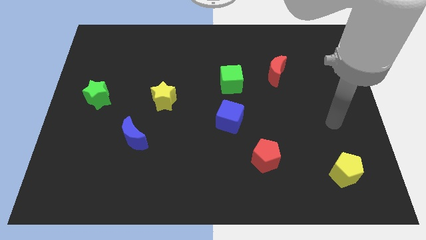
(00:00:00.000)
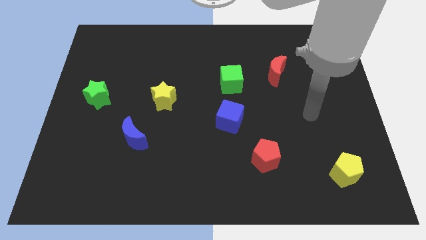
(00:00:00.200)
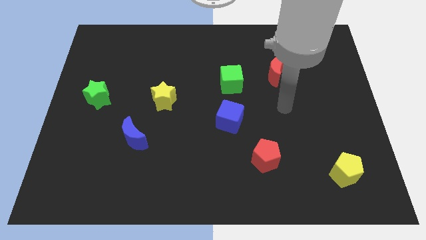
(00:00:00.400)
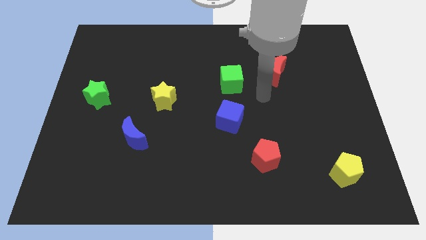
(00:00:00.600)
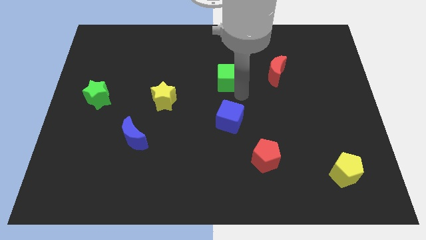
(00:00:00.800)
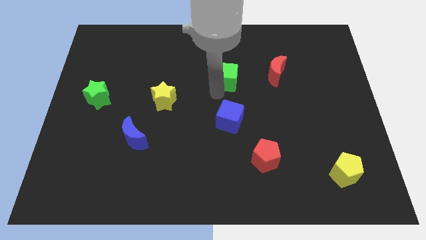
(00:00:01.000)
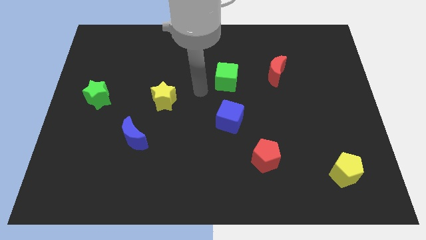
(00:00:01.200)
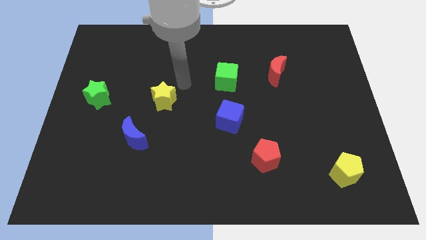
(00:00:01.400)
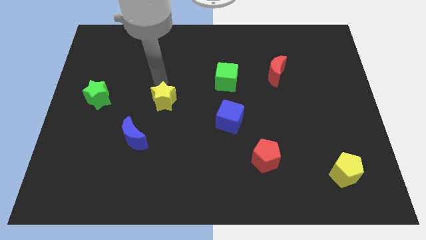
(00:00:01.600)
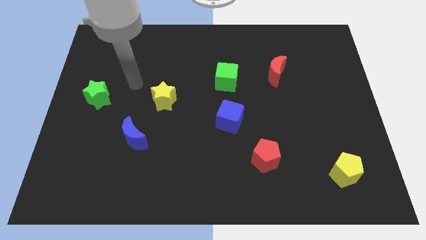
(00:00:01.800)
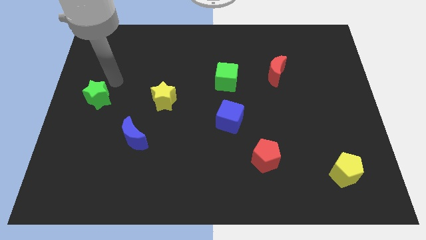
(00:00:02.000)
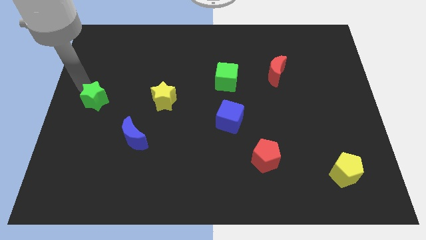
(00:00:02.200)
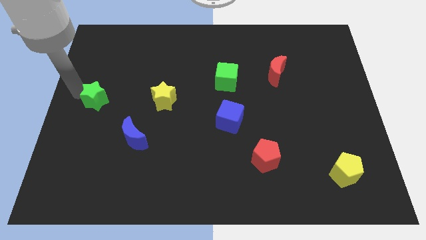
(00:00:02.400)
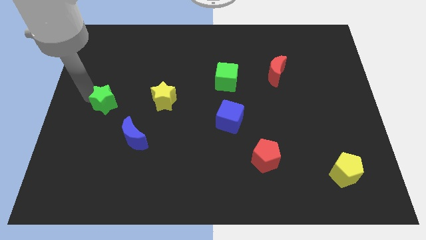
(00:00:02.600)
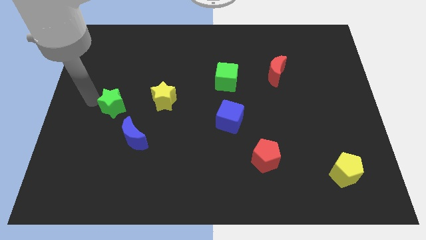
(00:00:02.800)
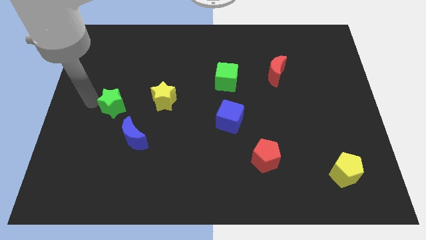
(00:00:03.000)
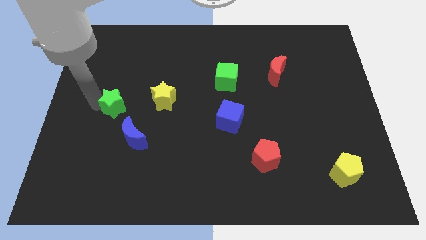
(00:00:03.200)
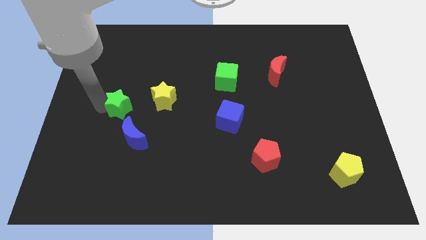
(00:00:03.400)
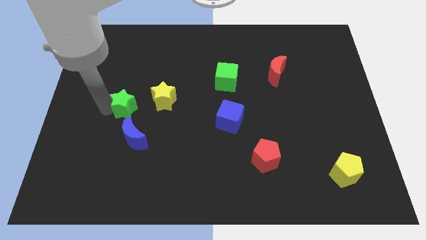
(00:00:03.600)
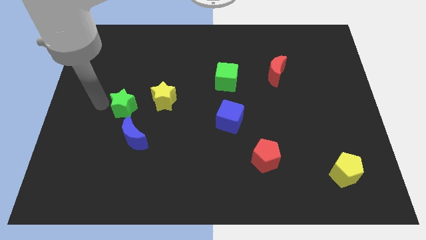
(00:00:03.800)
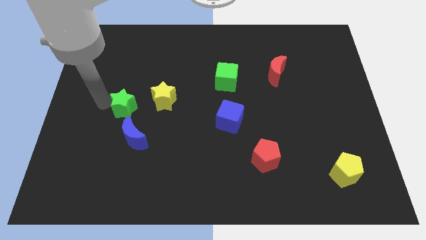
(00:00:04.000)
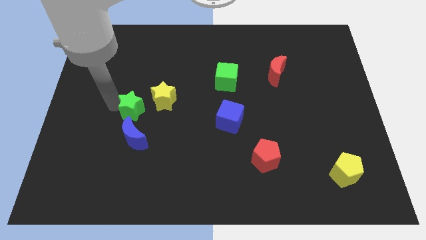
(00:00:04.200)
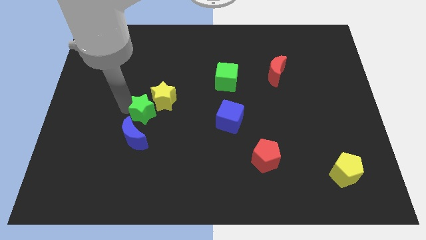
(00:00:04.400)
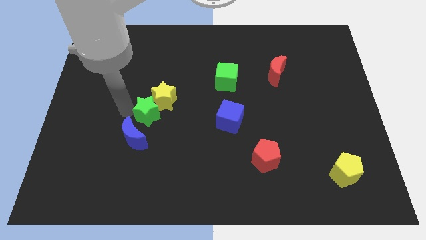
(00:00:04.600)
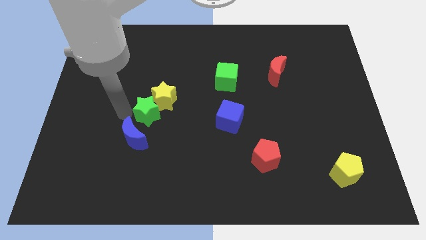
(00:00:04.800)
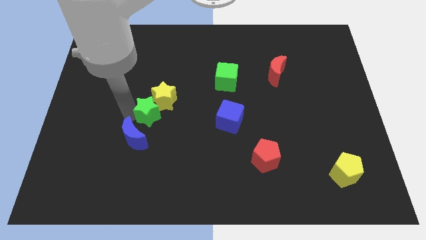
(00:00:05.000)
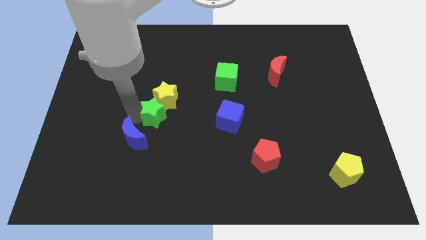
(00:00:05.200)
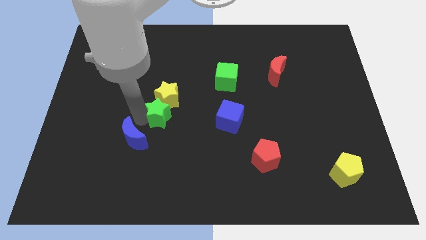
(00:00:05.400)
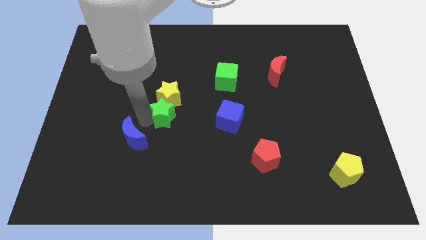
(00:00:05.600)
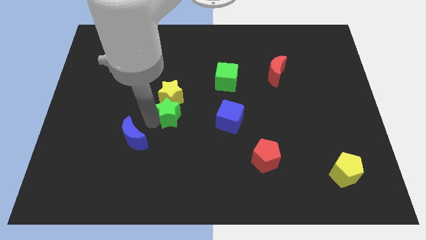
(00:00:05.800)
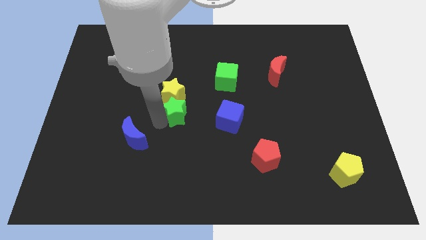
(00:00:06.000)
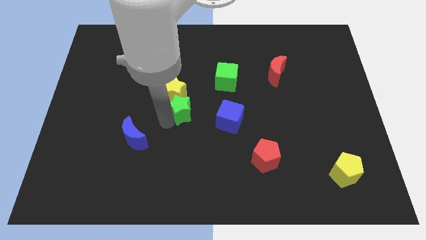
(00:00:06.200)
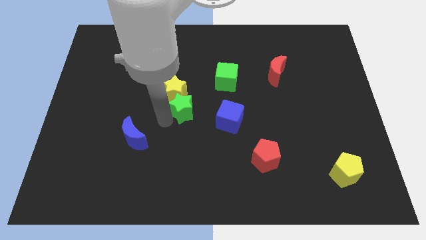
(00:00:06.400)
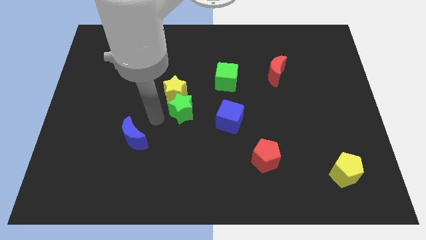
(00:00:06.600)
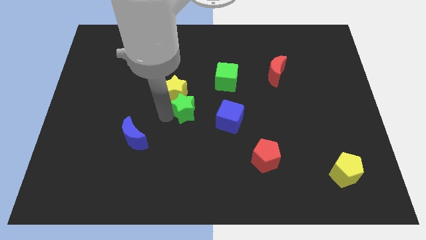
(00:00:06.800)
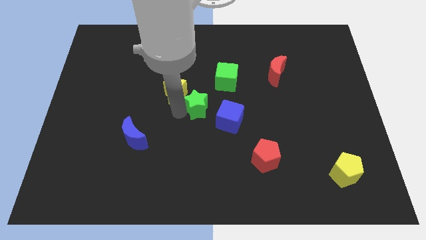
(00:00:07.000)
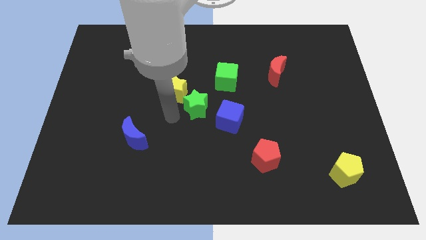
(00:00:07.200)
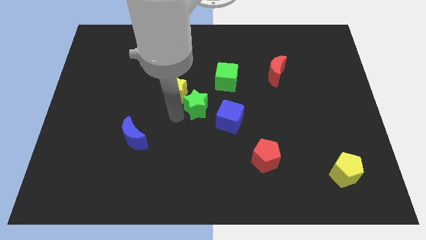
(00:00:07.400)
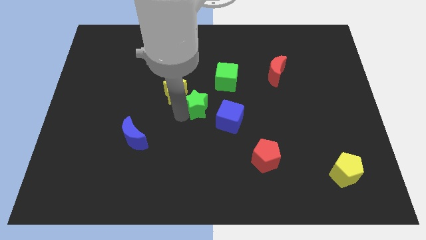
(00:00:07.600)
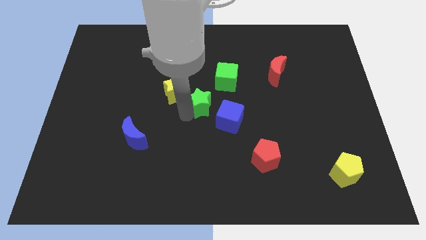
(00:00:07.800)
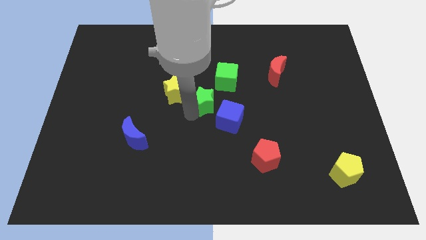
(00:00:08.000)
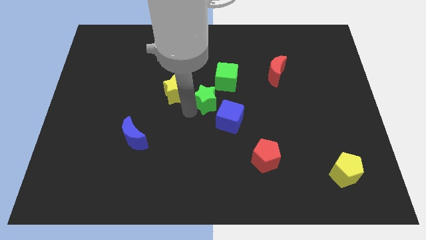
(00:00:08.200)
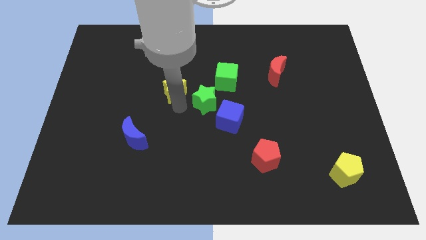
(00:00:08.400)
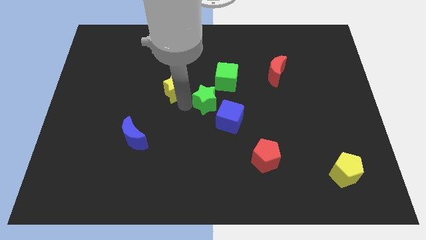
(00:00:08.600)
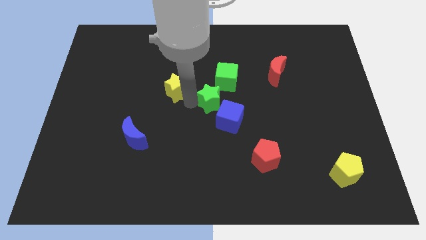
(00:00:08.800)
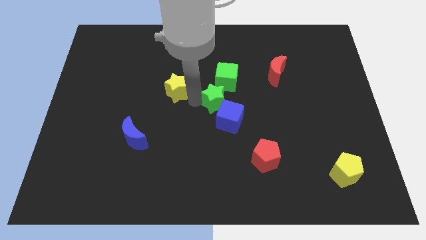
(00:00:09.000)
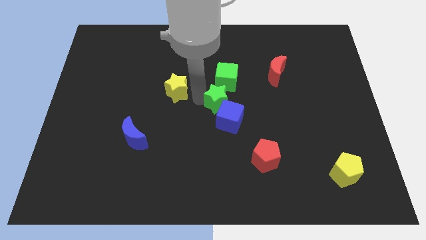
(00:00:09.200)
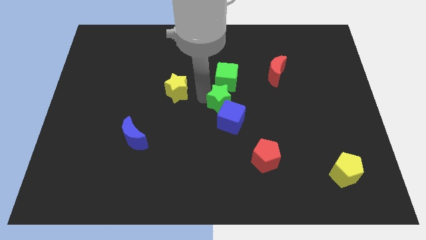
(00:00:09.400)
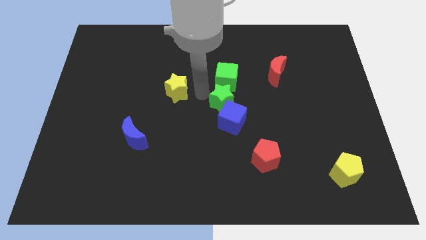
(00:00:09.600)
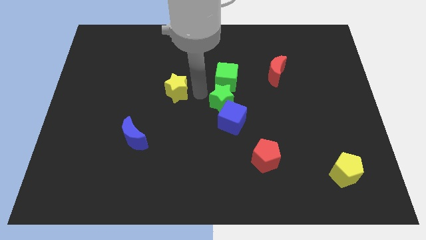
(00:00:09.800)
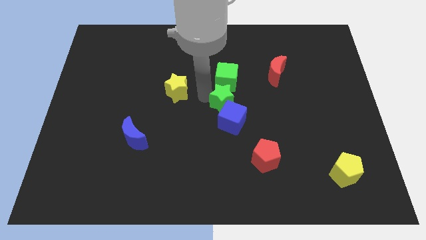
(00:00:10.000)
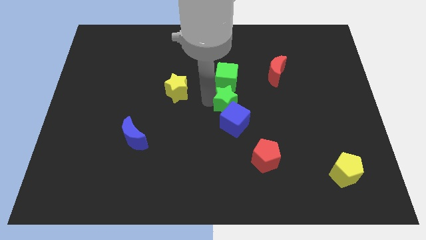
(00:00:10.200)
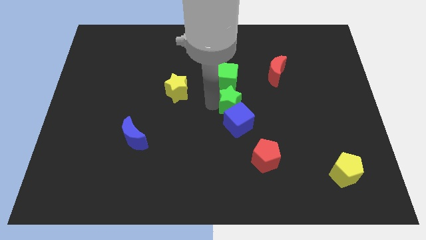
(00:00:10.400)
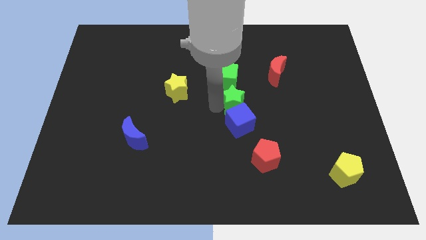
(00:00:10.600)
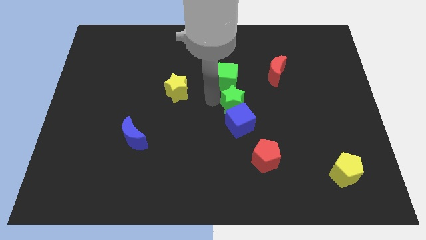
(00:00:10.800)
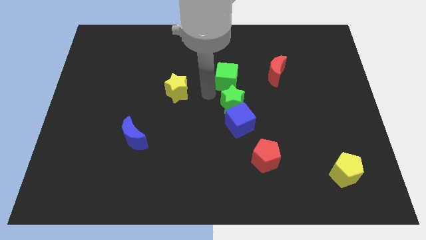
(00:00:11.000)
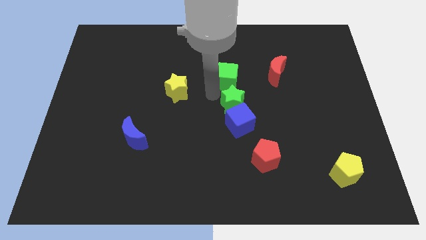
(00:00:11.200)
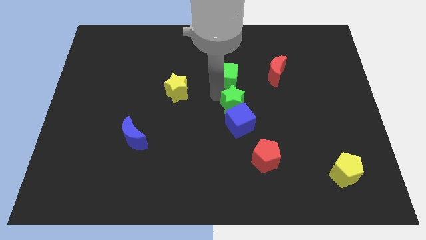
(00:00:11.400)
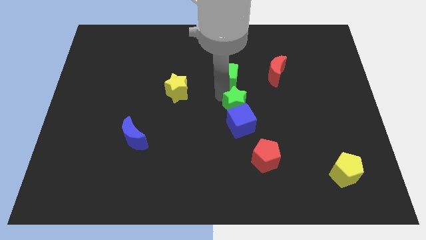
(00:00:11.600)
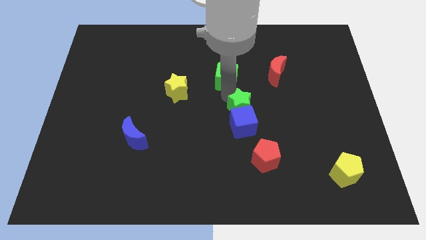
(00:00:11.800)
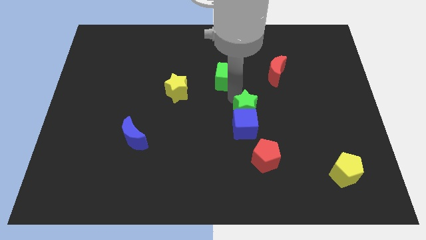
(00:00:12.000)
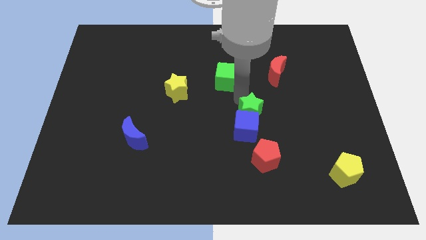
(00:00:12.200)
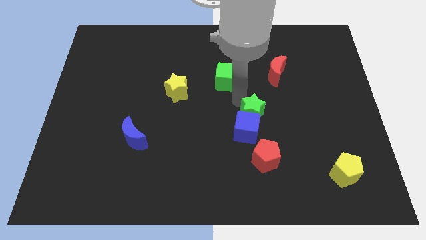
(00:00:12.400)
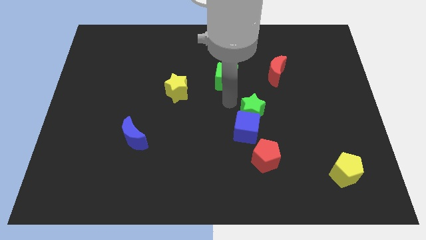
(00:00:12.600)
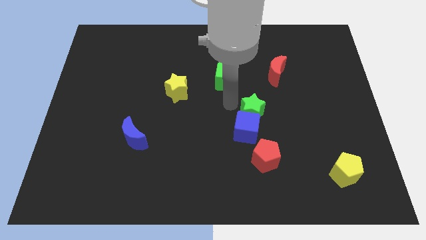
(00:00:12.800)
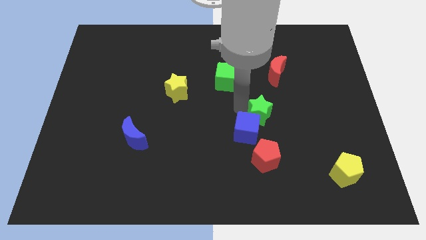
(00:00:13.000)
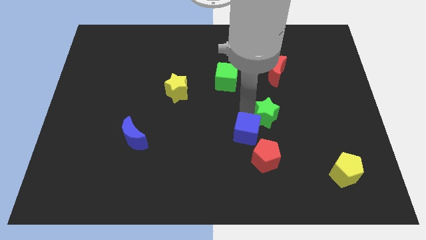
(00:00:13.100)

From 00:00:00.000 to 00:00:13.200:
push the green star to the bottom side of the red moon
